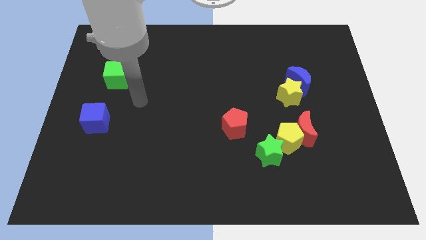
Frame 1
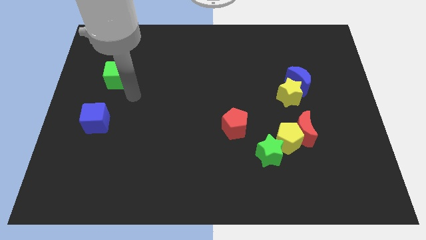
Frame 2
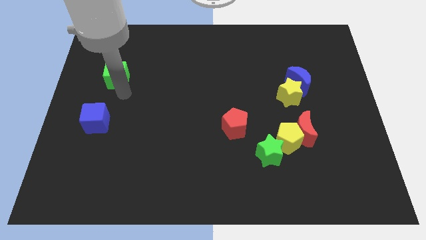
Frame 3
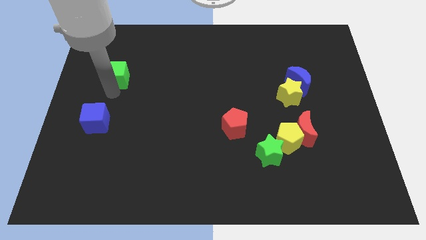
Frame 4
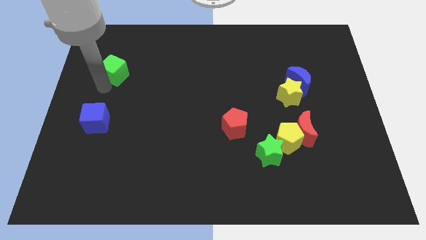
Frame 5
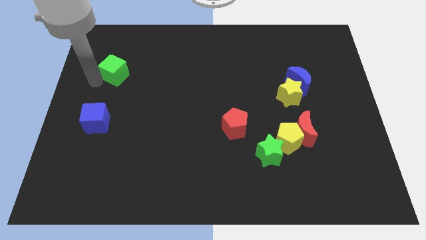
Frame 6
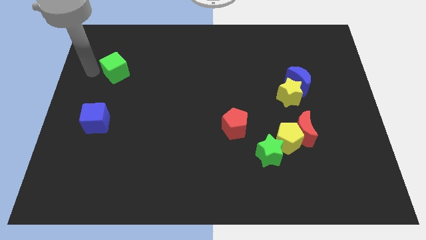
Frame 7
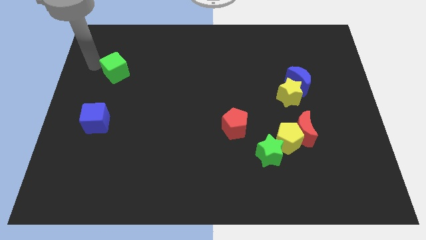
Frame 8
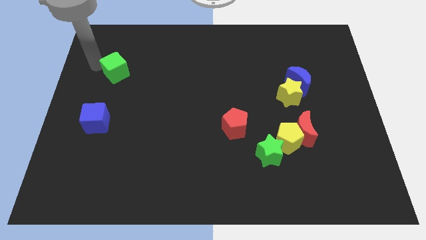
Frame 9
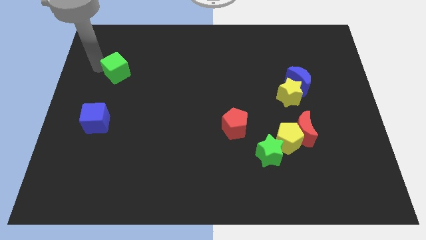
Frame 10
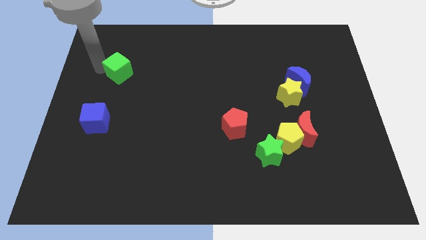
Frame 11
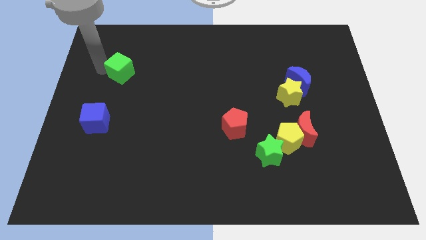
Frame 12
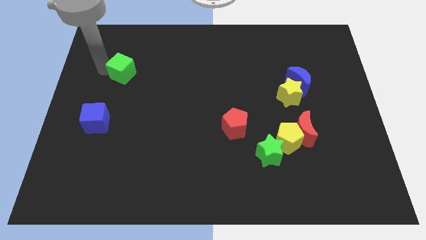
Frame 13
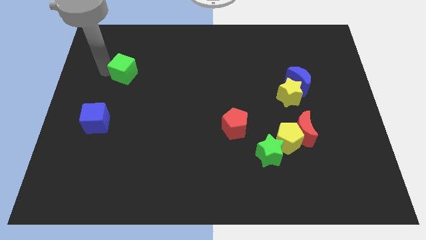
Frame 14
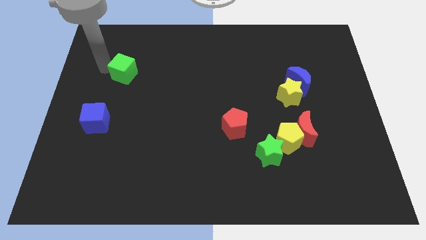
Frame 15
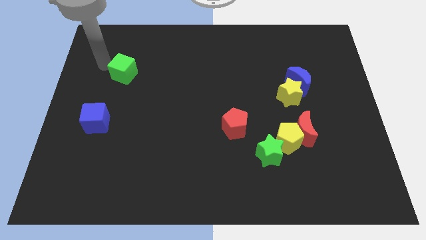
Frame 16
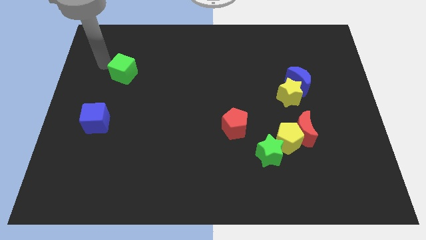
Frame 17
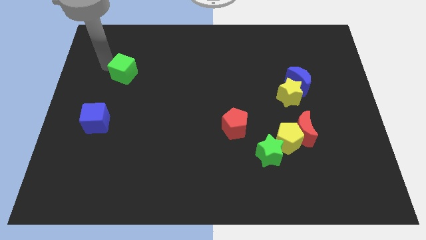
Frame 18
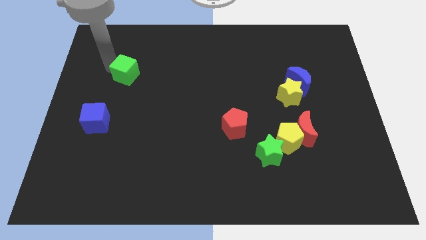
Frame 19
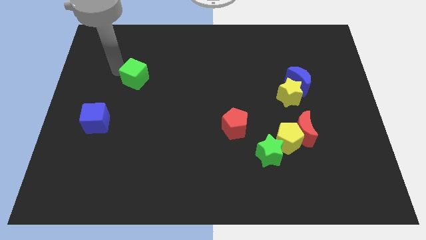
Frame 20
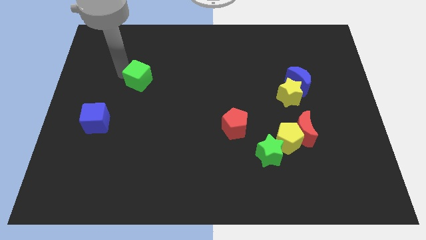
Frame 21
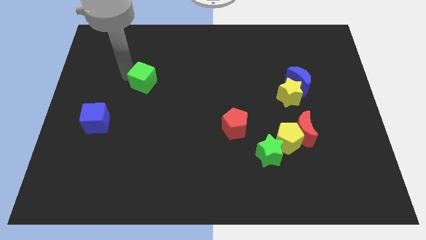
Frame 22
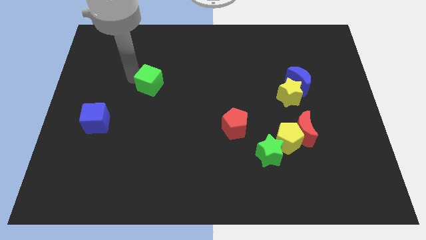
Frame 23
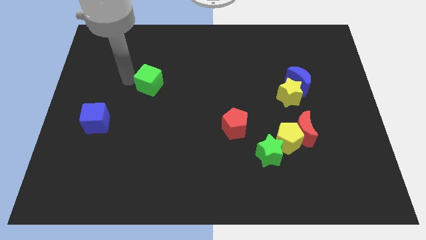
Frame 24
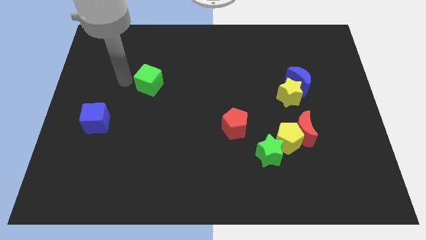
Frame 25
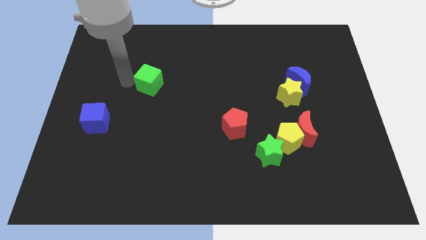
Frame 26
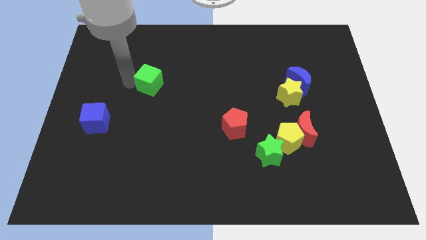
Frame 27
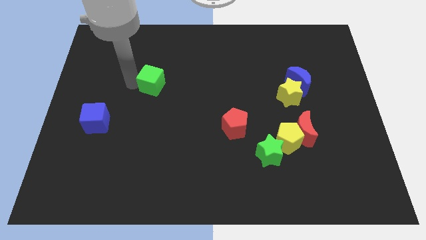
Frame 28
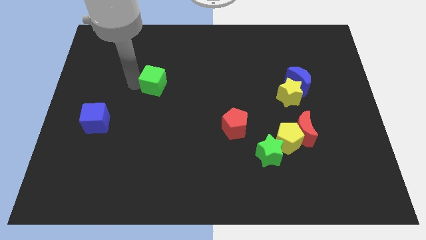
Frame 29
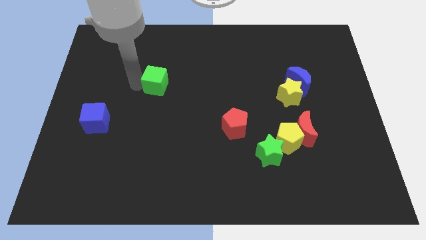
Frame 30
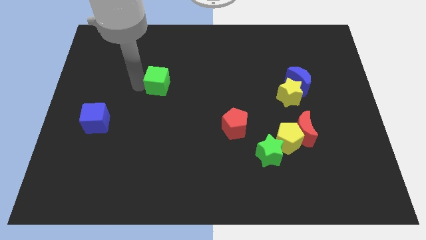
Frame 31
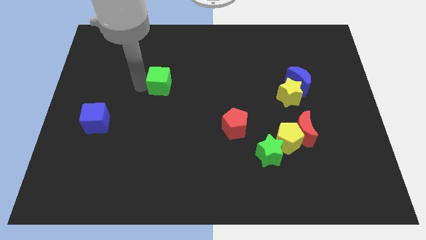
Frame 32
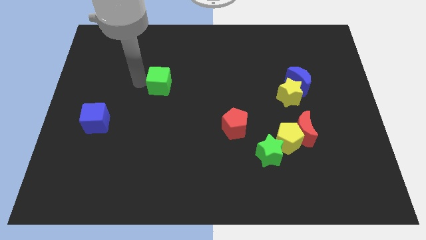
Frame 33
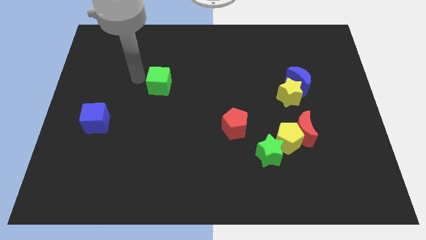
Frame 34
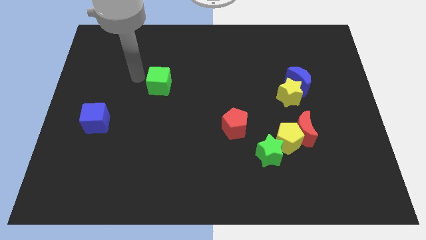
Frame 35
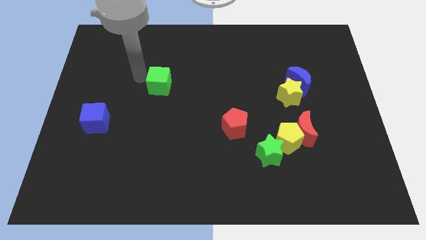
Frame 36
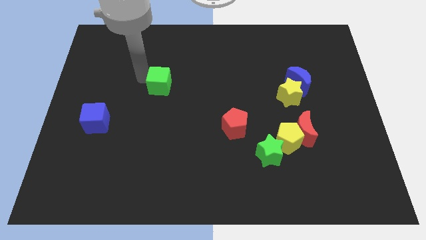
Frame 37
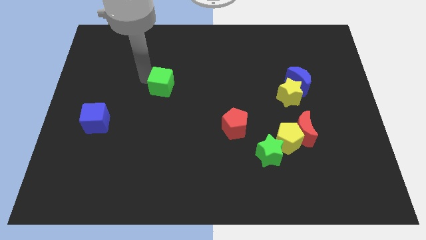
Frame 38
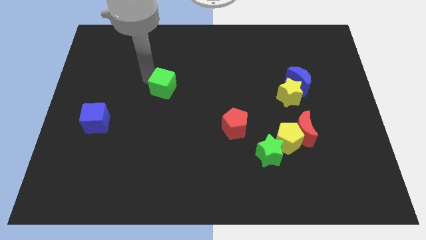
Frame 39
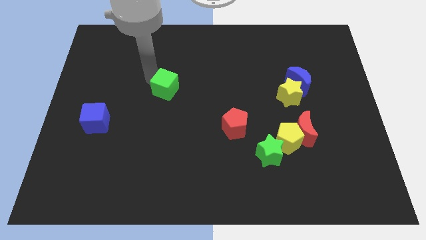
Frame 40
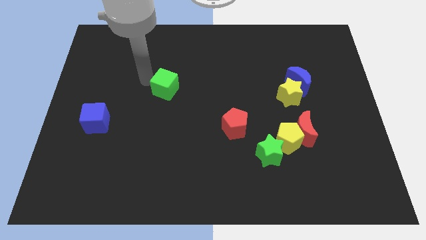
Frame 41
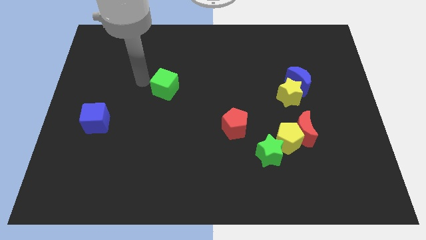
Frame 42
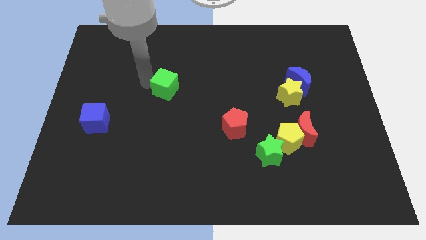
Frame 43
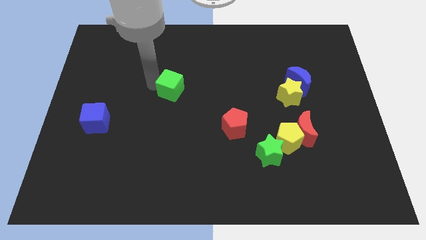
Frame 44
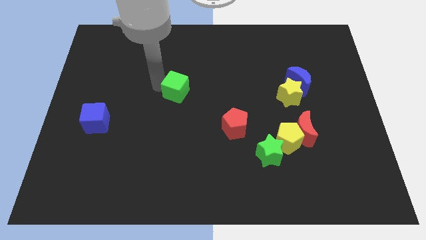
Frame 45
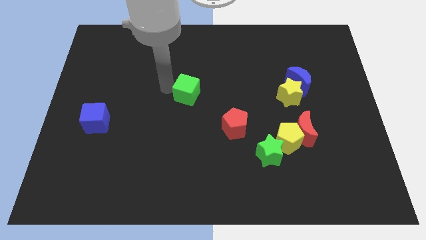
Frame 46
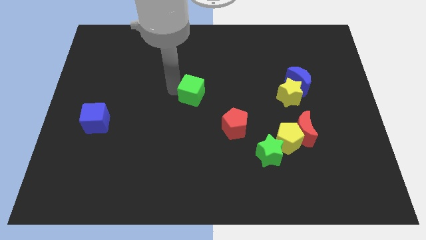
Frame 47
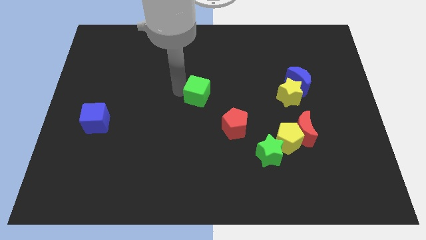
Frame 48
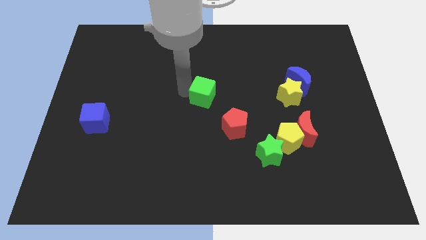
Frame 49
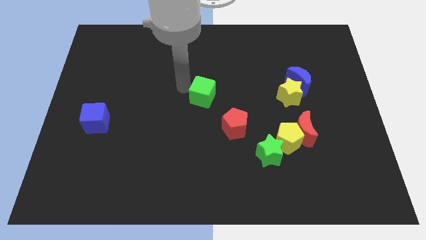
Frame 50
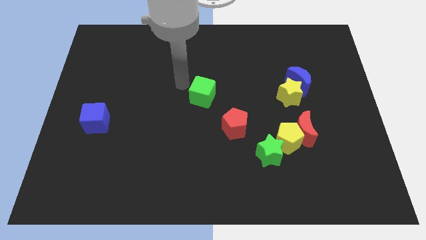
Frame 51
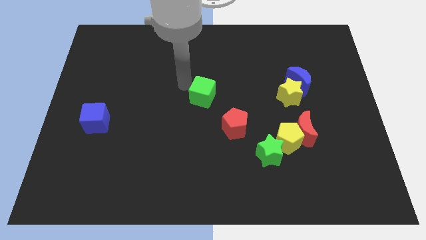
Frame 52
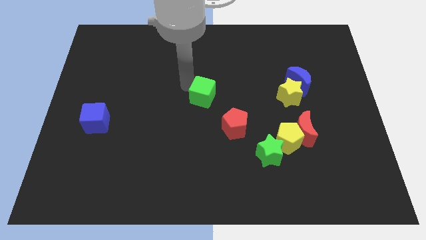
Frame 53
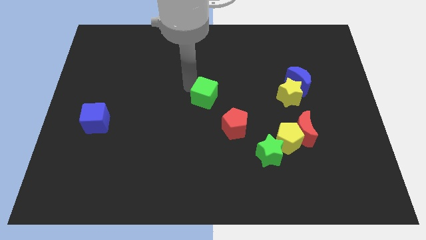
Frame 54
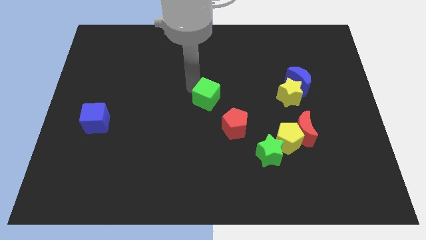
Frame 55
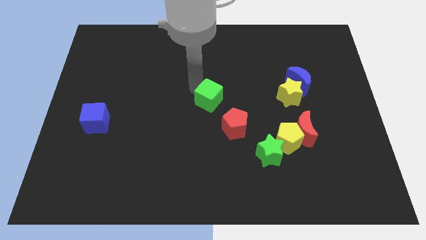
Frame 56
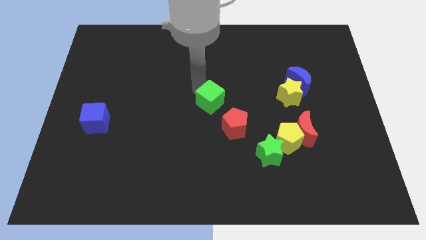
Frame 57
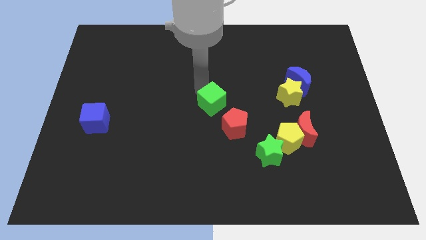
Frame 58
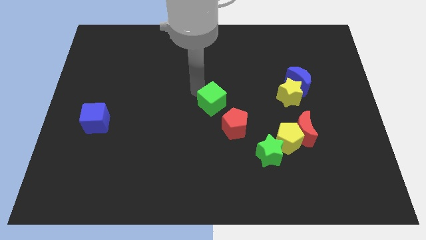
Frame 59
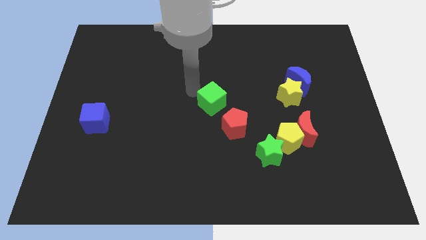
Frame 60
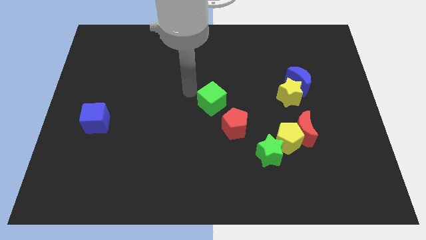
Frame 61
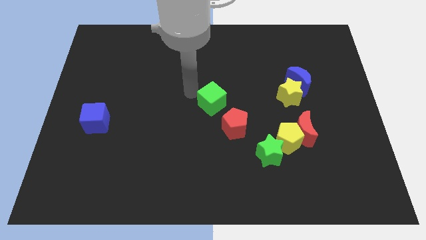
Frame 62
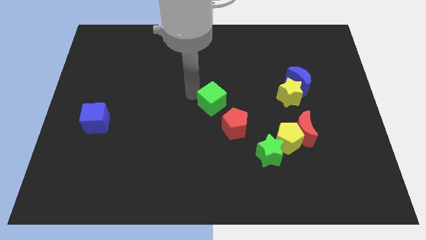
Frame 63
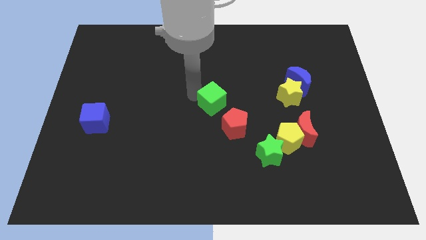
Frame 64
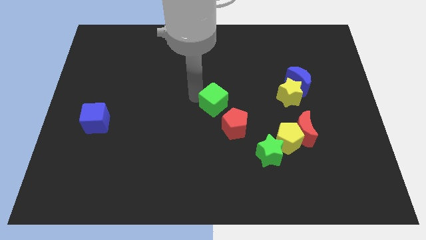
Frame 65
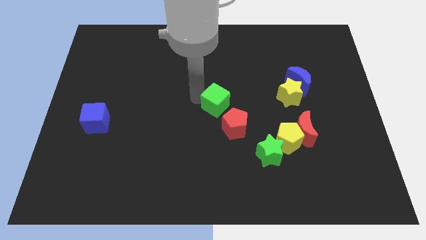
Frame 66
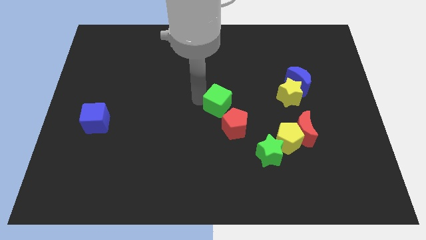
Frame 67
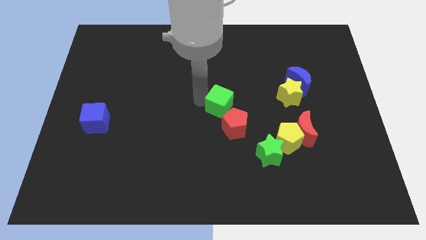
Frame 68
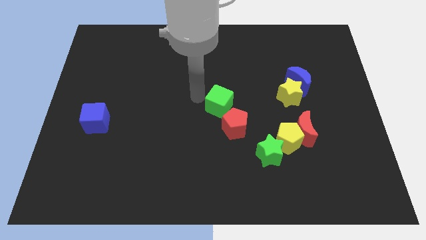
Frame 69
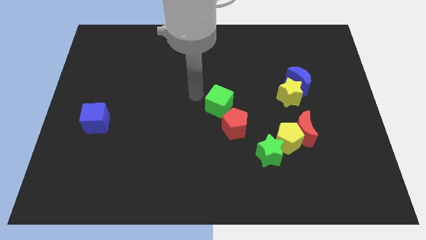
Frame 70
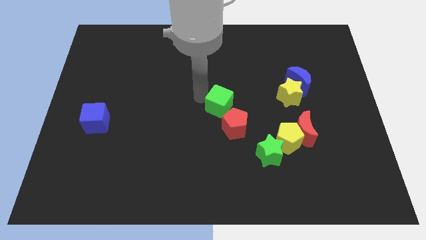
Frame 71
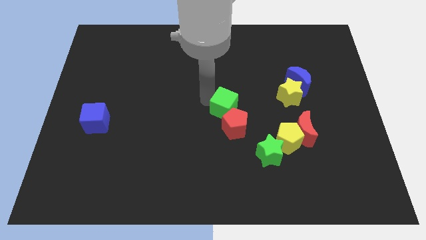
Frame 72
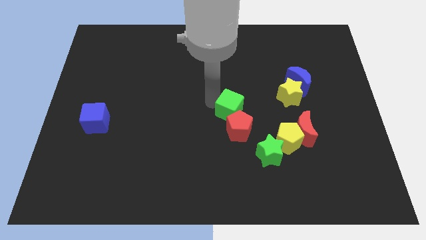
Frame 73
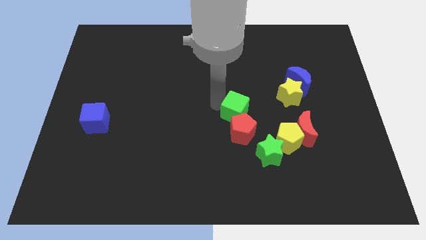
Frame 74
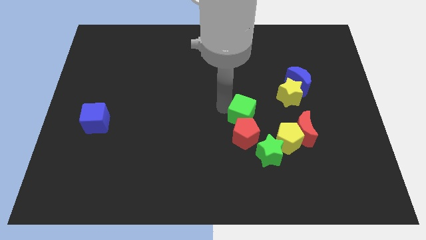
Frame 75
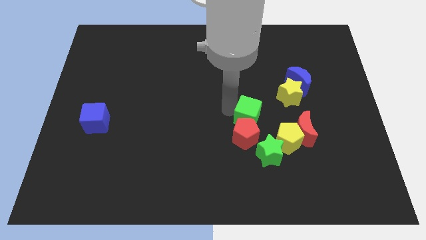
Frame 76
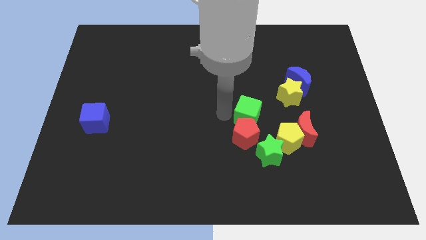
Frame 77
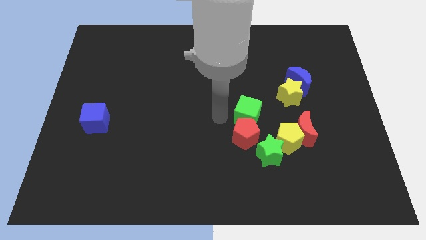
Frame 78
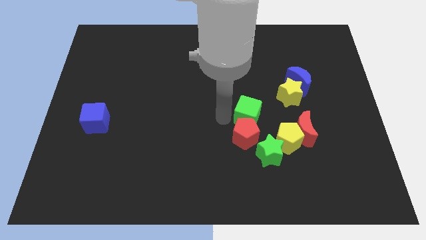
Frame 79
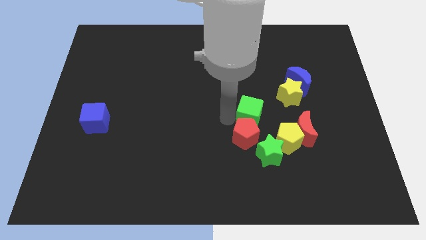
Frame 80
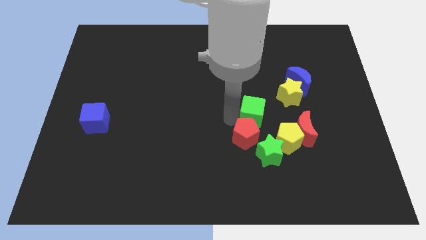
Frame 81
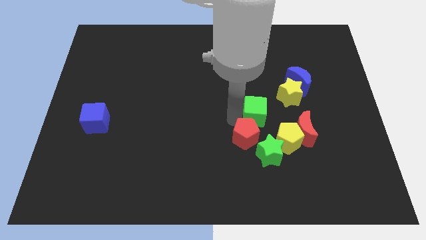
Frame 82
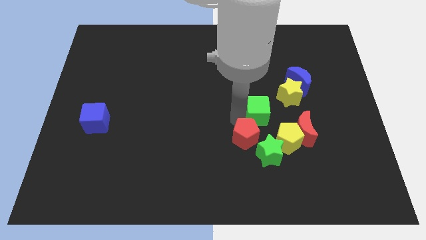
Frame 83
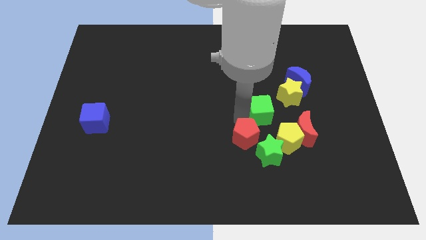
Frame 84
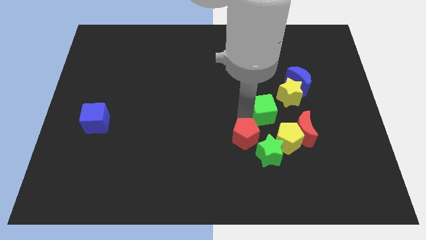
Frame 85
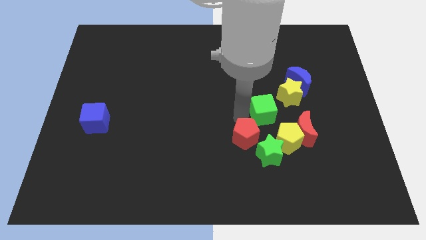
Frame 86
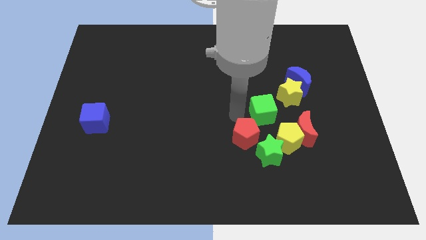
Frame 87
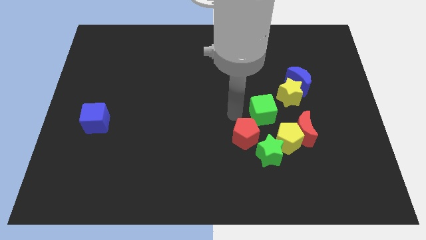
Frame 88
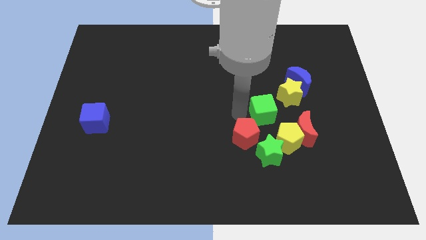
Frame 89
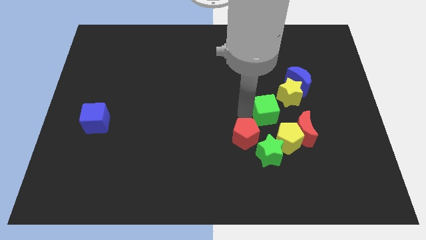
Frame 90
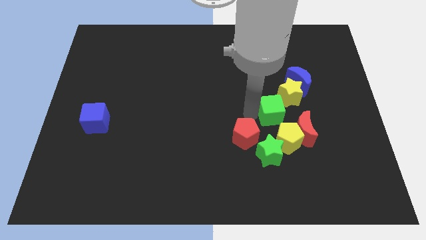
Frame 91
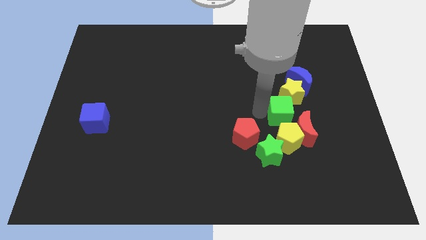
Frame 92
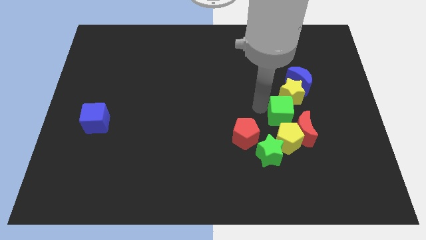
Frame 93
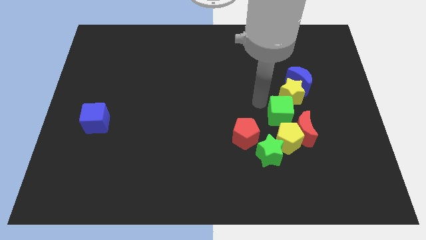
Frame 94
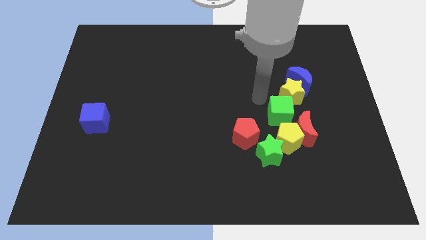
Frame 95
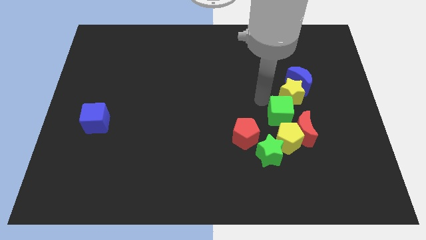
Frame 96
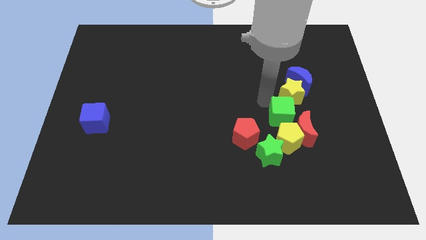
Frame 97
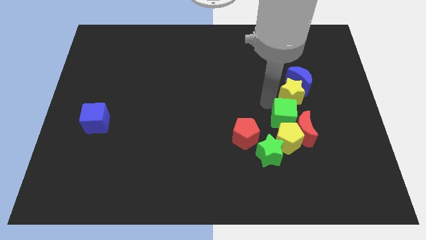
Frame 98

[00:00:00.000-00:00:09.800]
put the green cube towards the red moon
